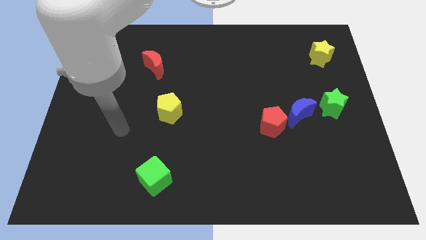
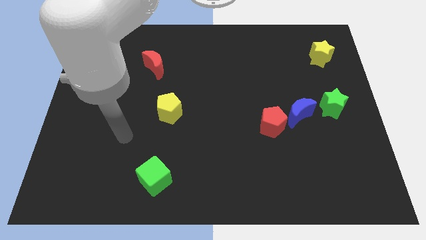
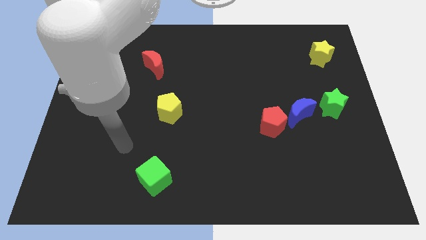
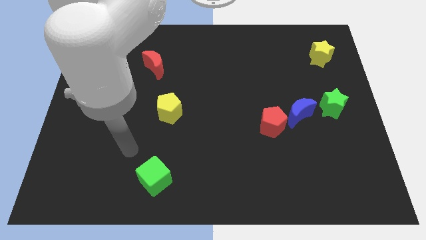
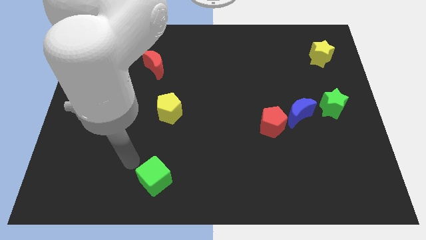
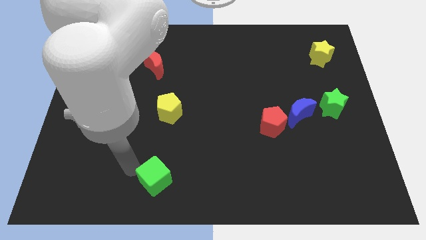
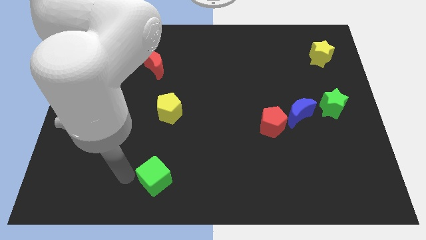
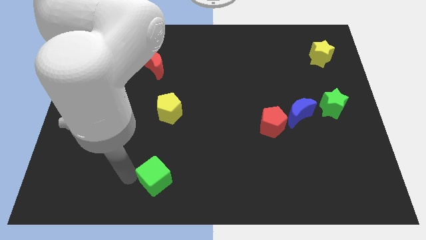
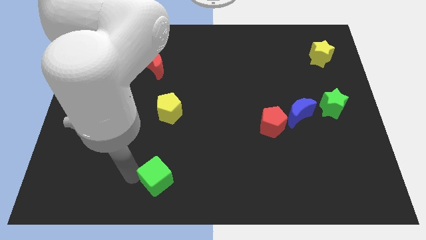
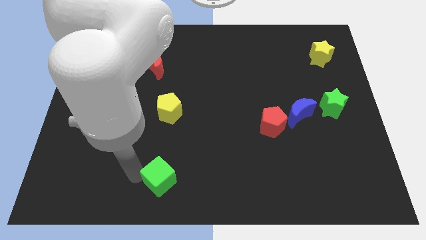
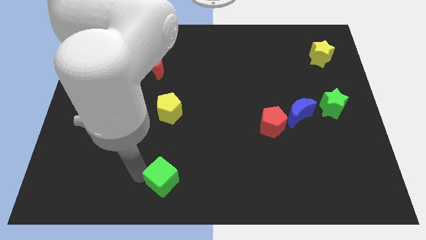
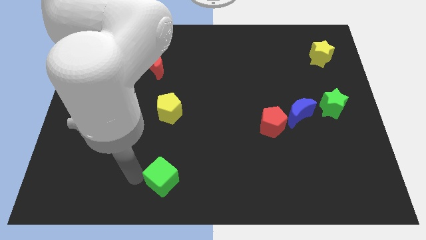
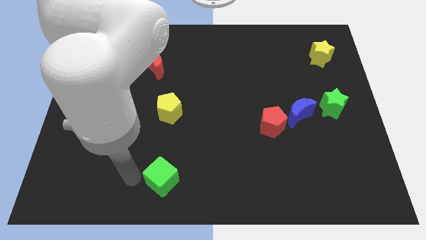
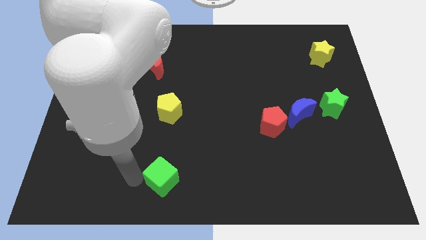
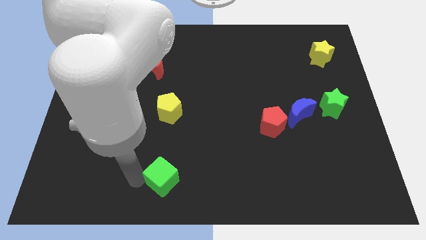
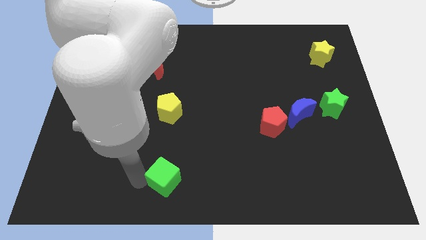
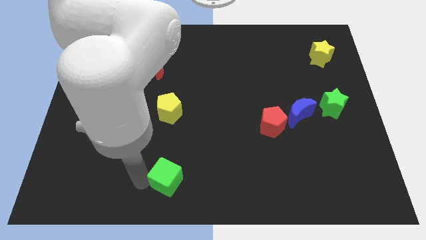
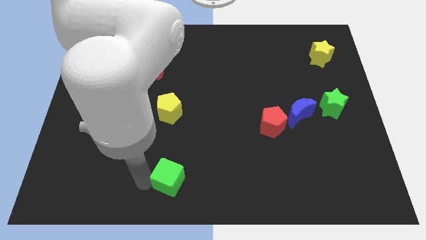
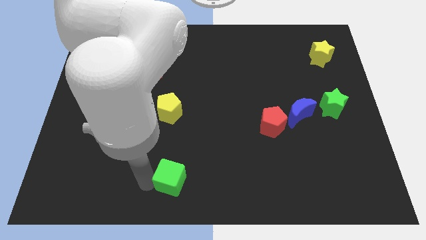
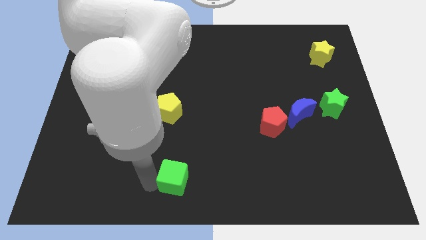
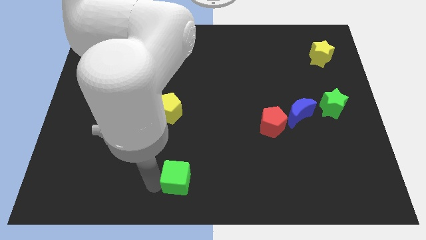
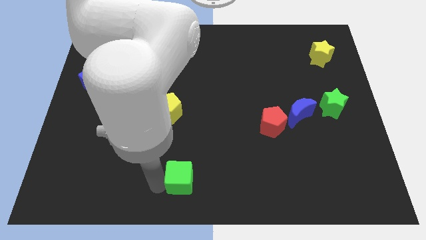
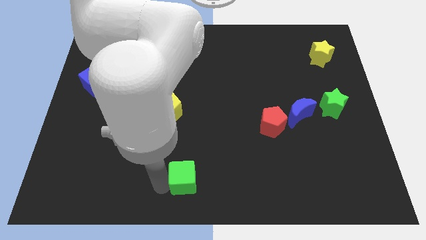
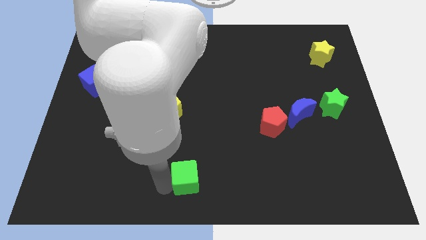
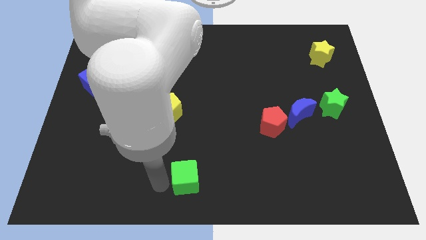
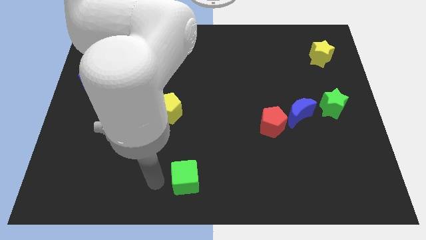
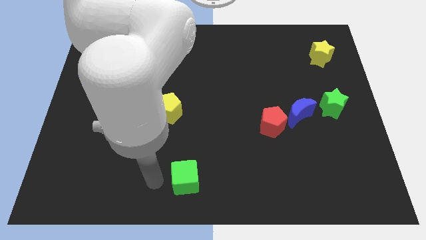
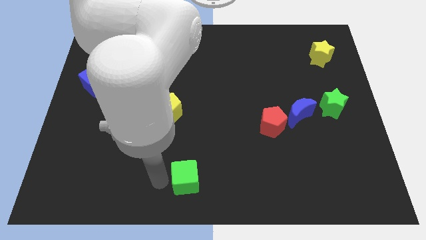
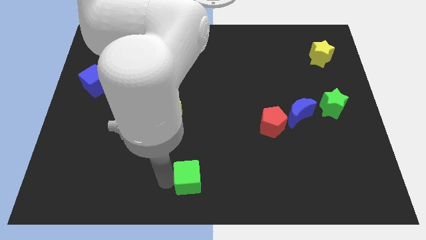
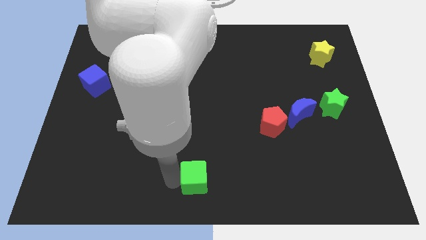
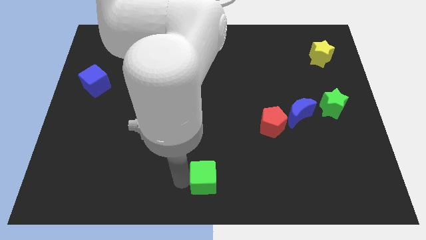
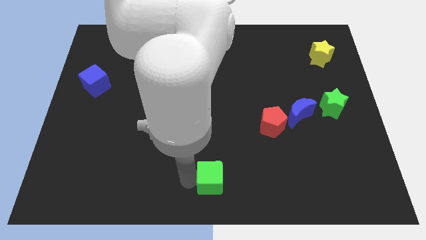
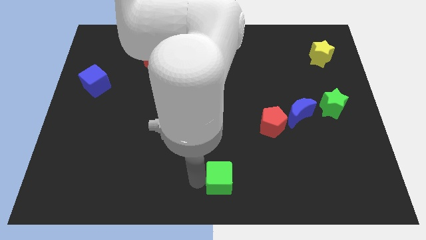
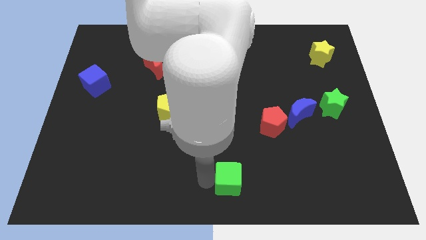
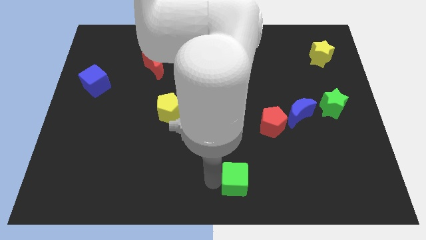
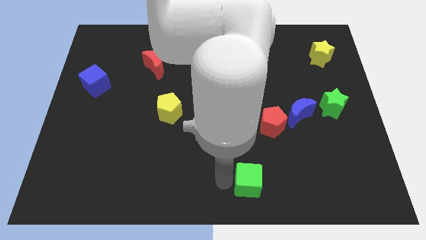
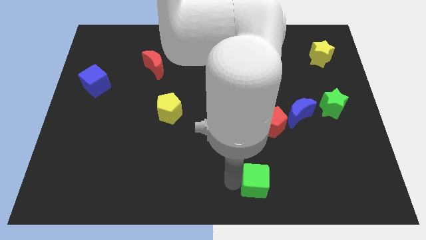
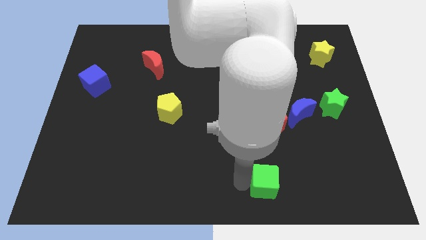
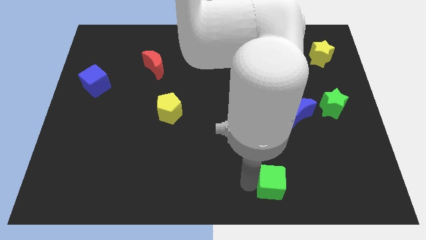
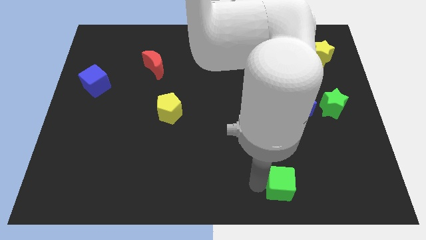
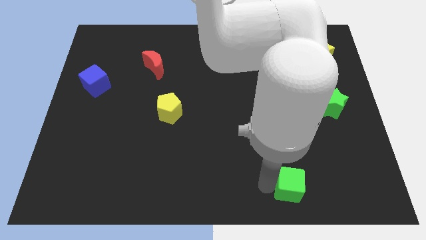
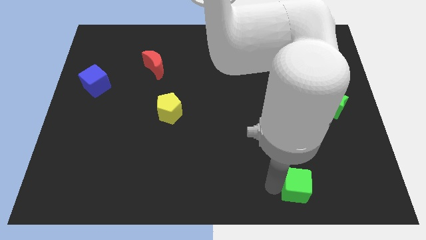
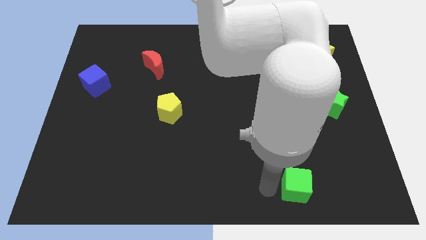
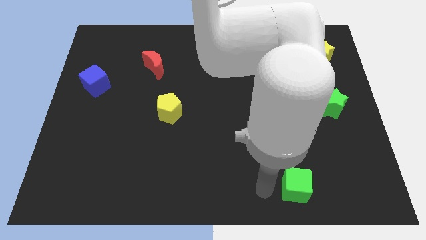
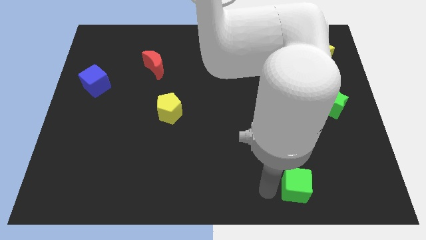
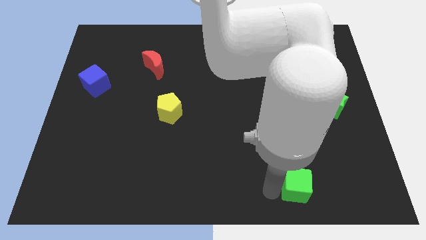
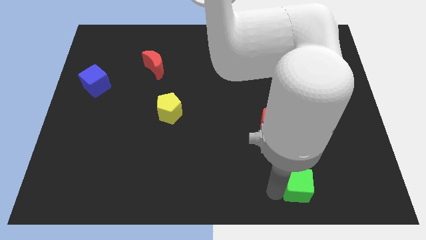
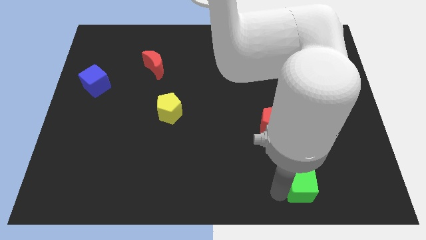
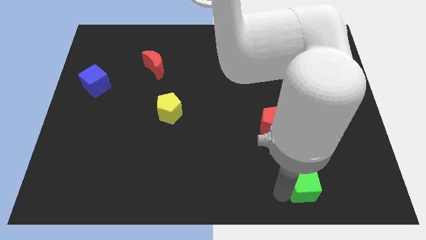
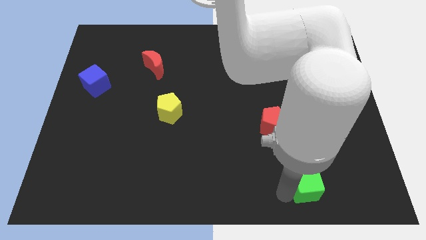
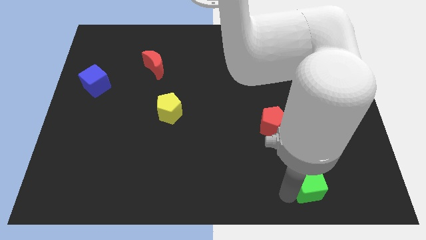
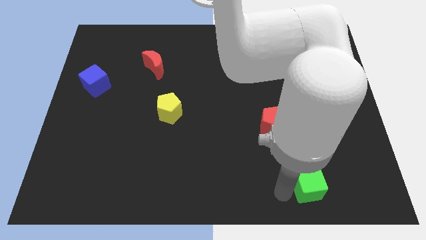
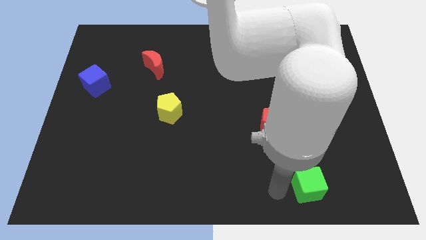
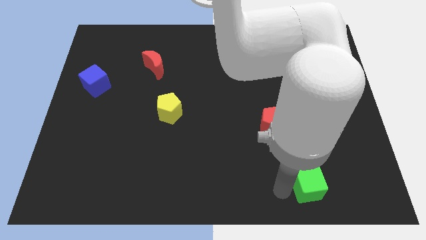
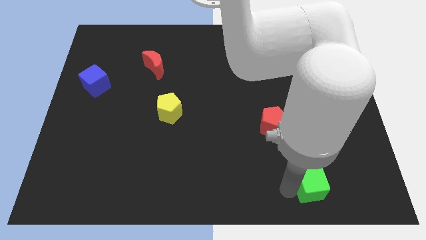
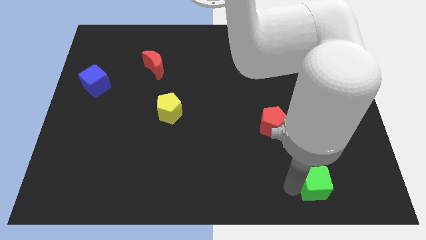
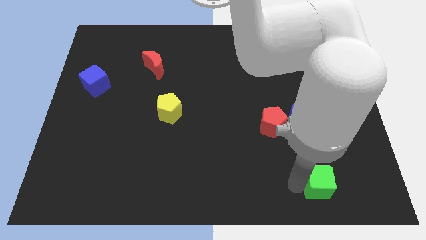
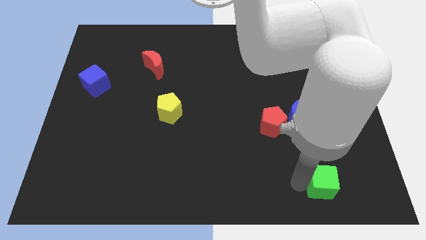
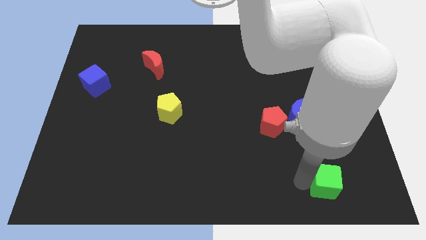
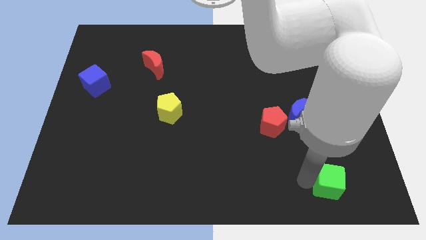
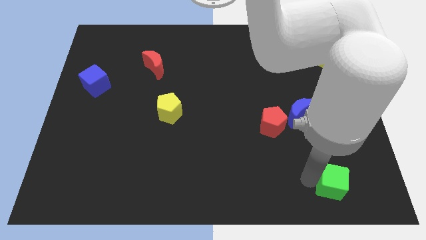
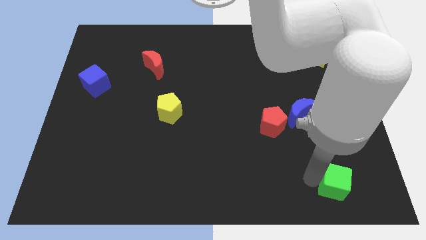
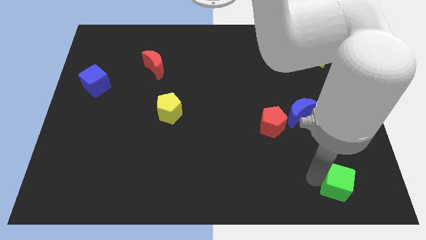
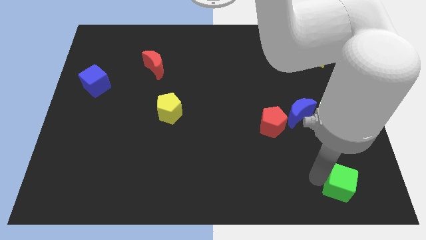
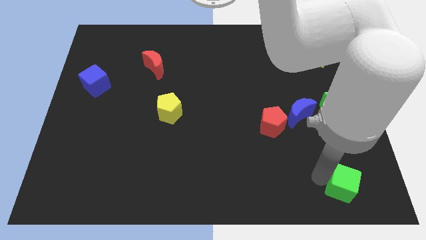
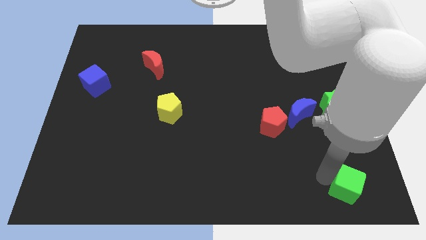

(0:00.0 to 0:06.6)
put the green cube to the bottom right
